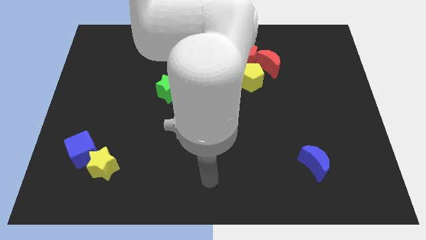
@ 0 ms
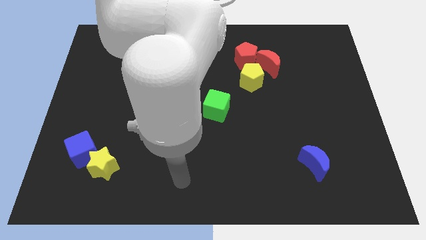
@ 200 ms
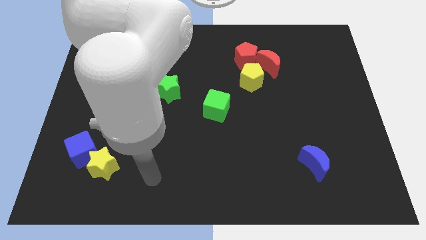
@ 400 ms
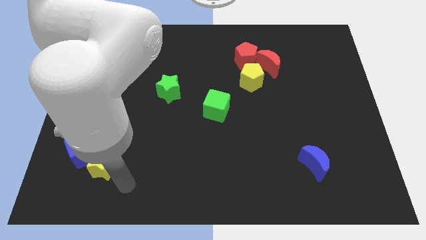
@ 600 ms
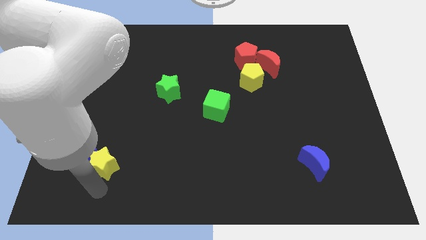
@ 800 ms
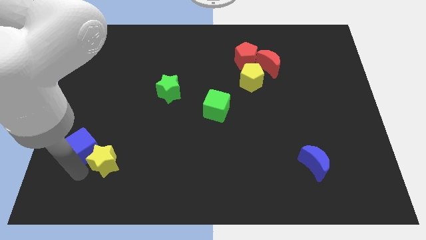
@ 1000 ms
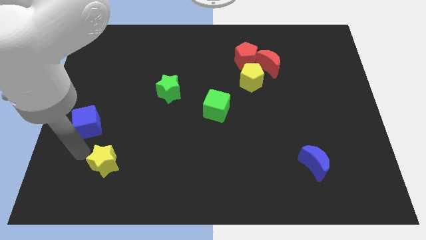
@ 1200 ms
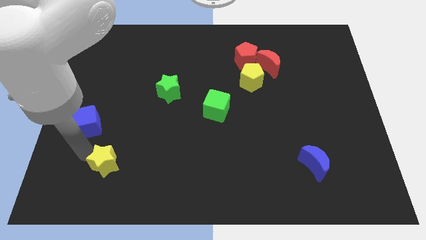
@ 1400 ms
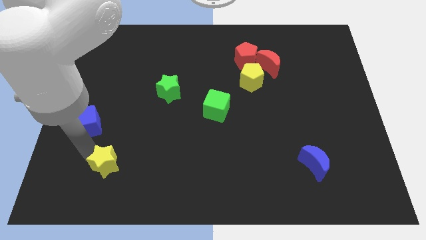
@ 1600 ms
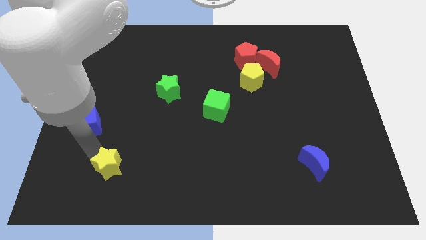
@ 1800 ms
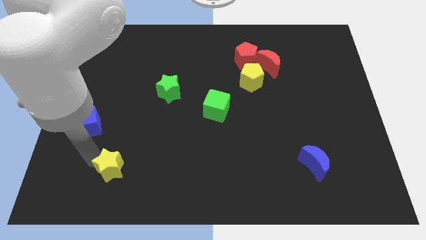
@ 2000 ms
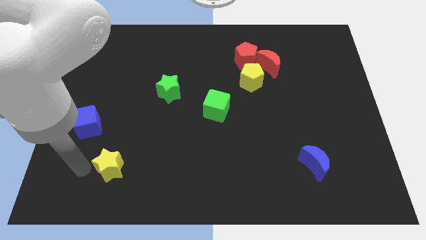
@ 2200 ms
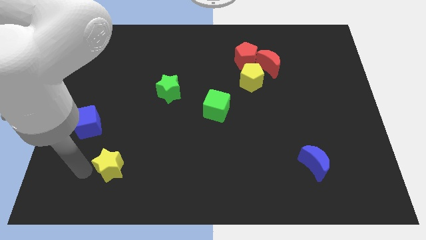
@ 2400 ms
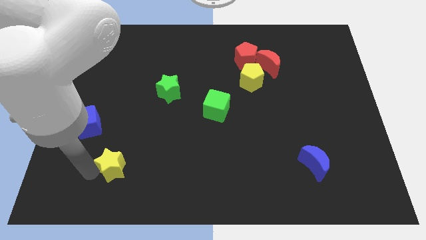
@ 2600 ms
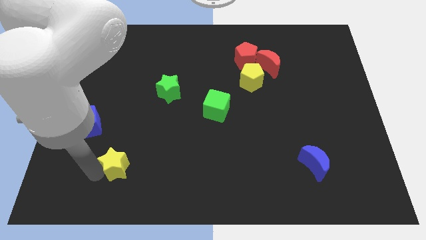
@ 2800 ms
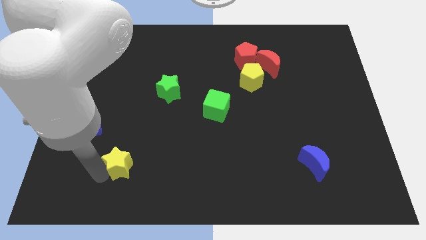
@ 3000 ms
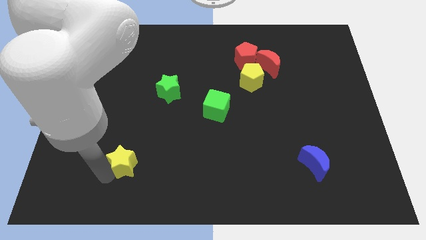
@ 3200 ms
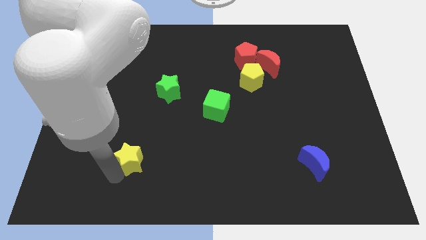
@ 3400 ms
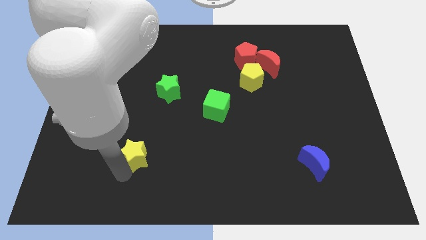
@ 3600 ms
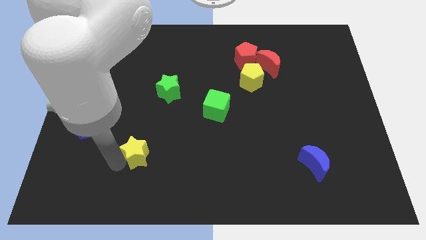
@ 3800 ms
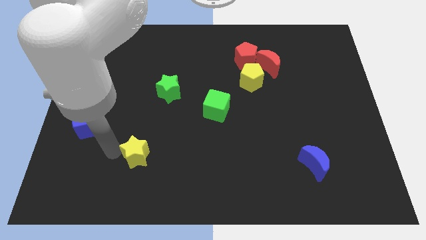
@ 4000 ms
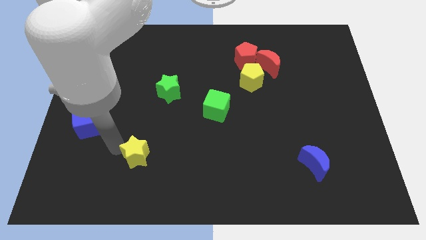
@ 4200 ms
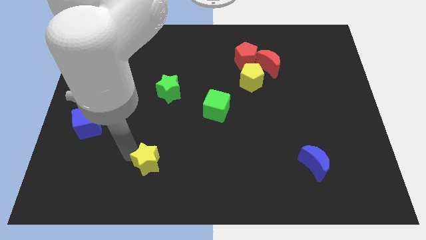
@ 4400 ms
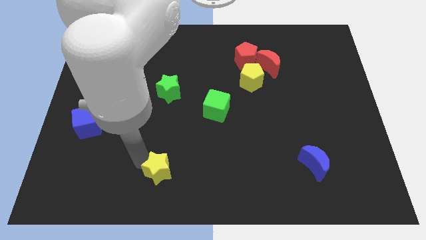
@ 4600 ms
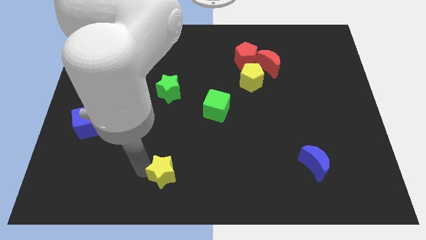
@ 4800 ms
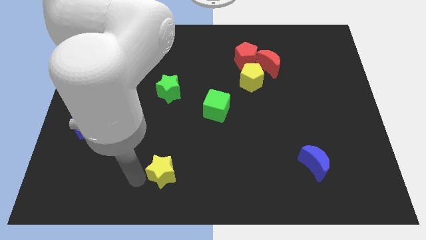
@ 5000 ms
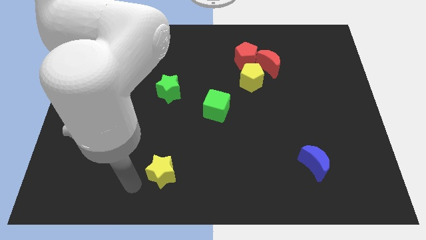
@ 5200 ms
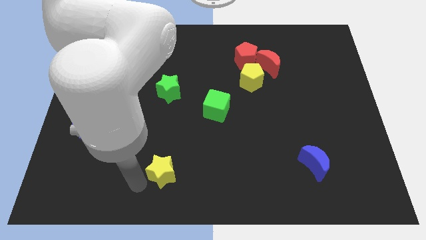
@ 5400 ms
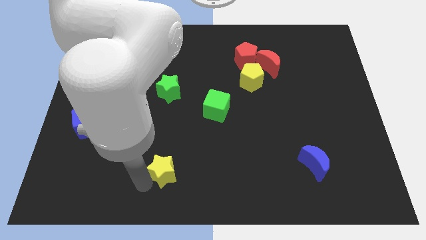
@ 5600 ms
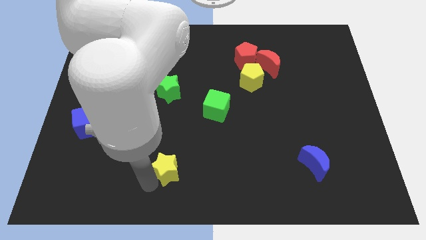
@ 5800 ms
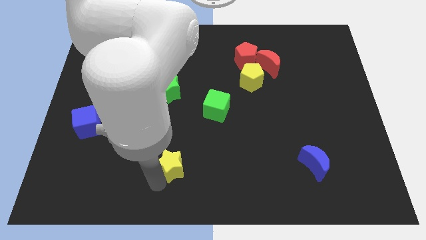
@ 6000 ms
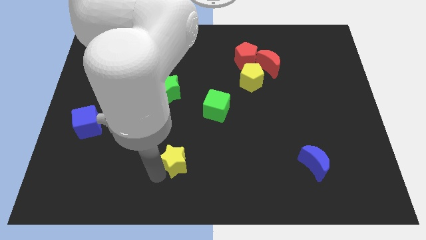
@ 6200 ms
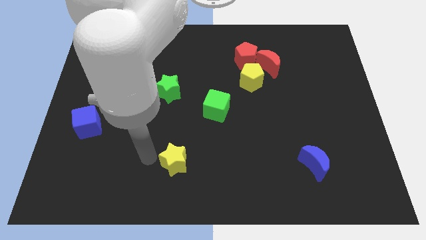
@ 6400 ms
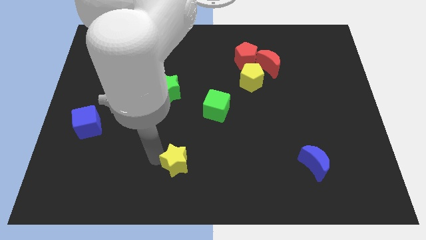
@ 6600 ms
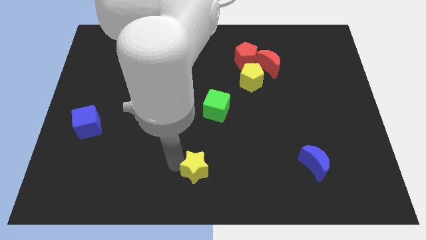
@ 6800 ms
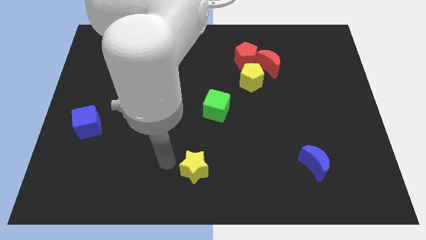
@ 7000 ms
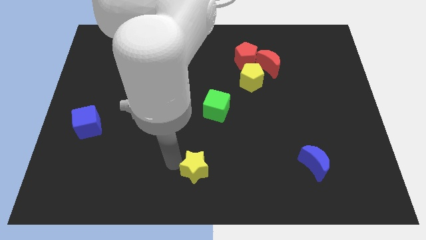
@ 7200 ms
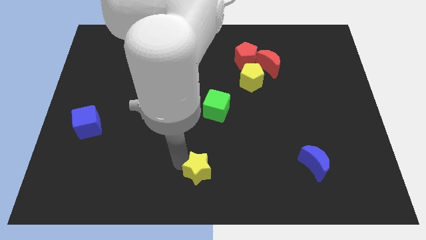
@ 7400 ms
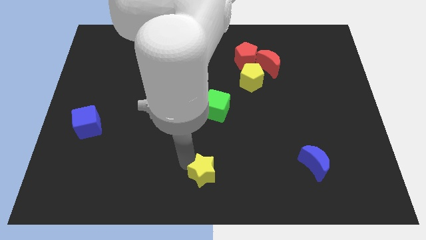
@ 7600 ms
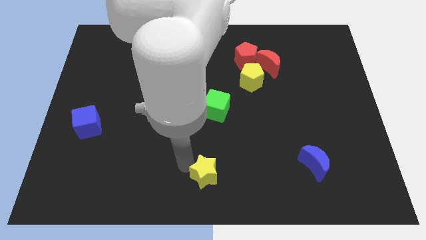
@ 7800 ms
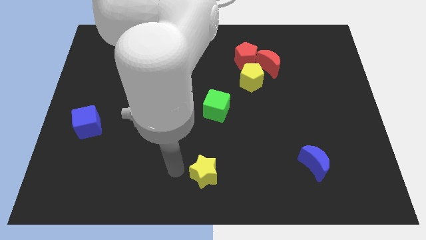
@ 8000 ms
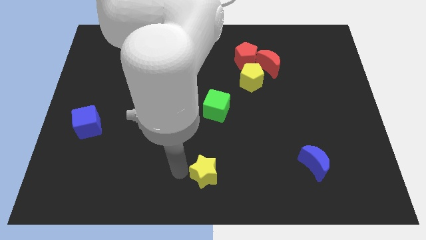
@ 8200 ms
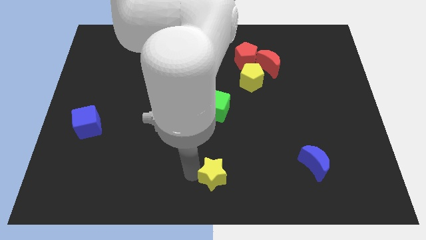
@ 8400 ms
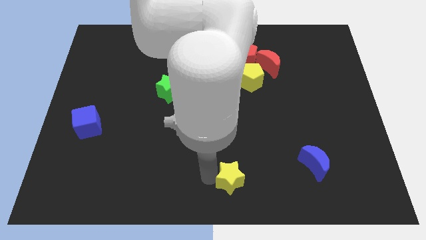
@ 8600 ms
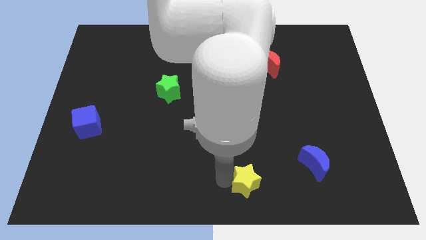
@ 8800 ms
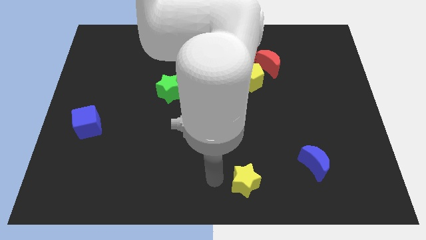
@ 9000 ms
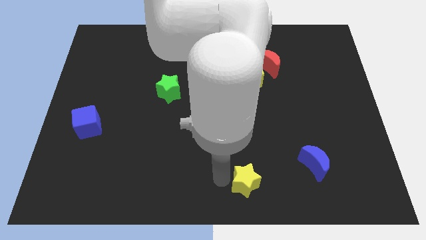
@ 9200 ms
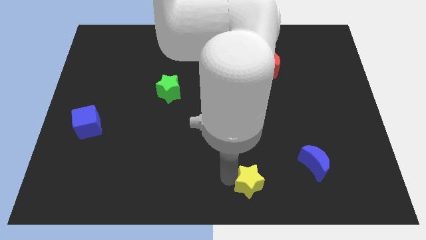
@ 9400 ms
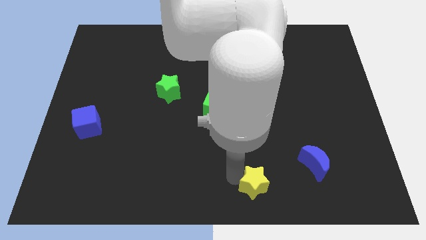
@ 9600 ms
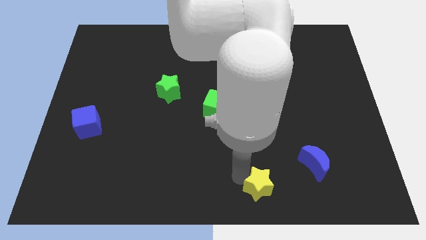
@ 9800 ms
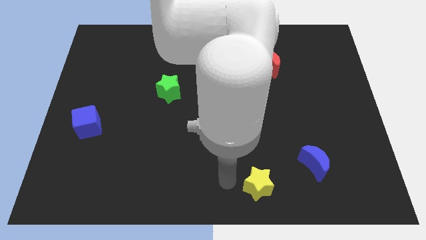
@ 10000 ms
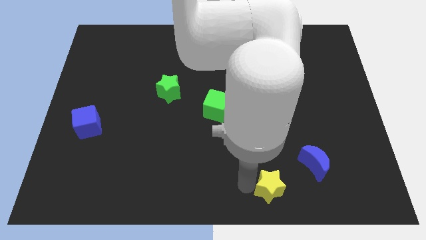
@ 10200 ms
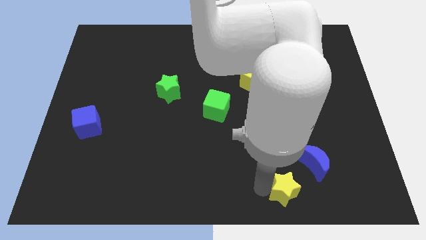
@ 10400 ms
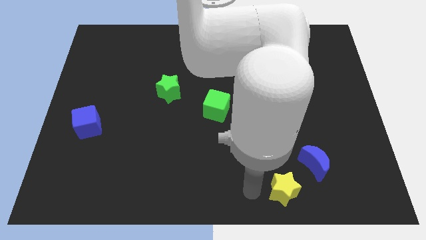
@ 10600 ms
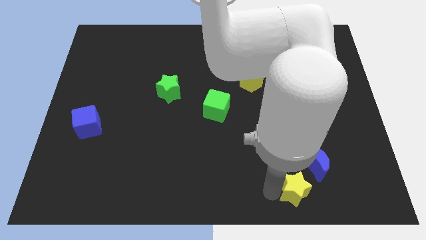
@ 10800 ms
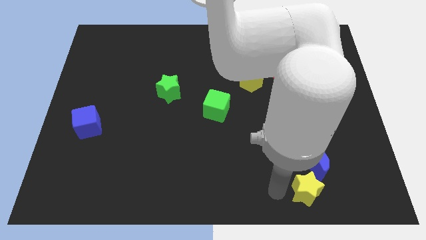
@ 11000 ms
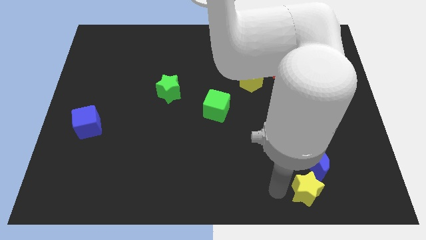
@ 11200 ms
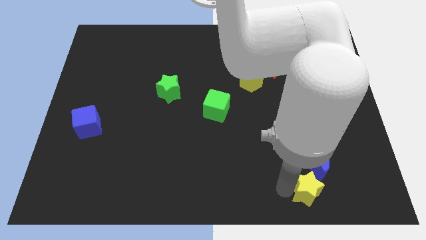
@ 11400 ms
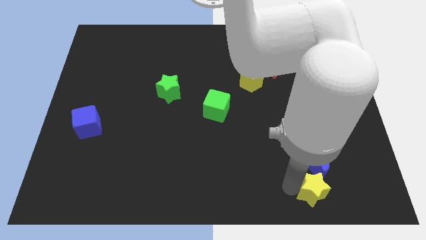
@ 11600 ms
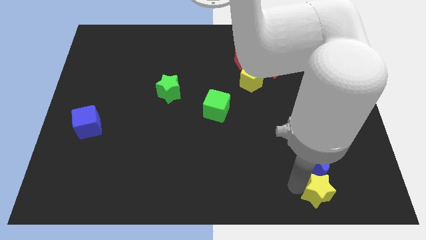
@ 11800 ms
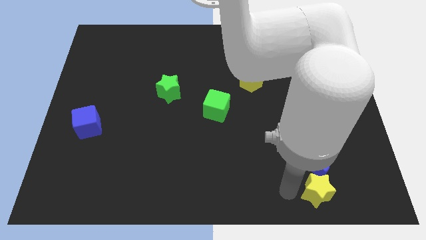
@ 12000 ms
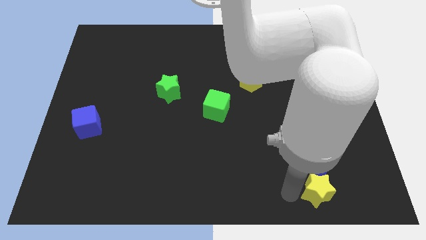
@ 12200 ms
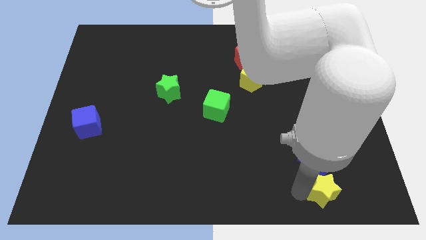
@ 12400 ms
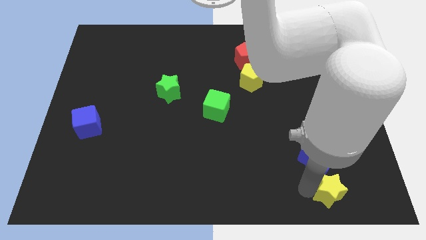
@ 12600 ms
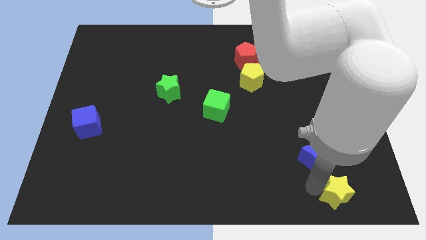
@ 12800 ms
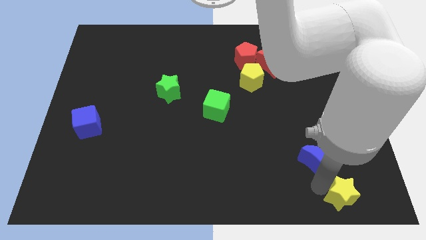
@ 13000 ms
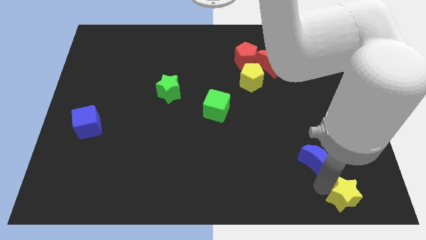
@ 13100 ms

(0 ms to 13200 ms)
move the yellow star to the bottom right
